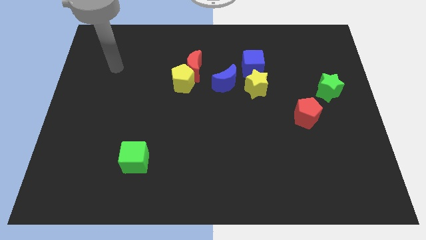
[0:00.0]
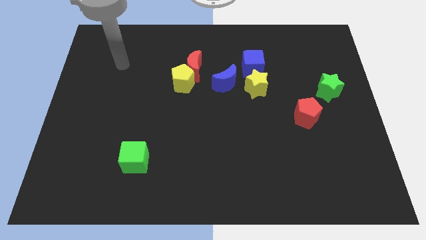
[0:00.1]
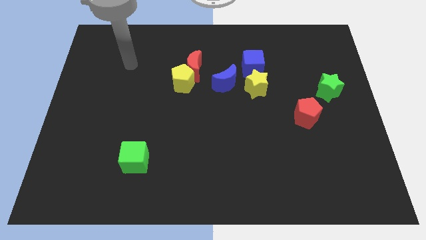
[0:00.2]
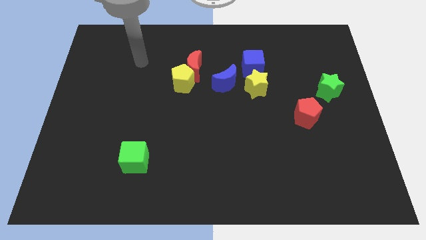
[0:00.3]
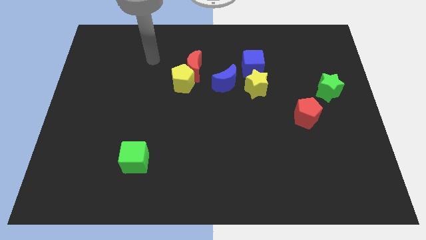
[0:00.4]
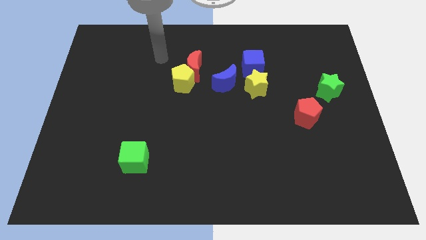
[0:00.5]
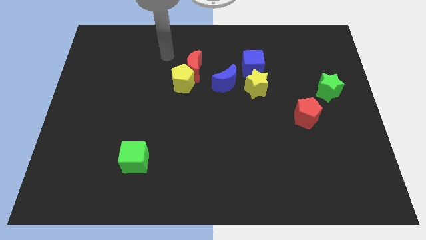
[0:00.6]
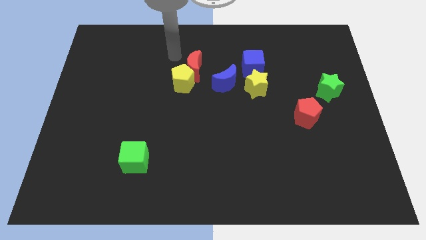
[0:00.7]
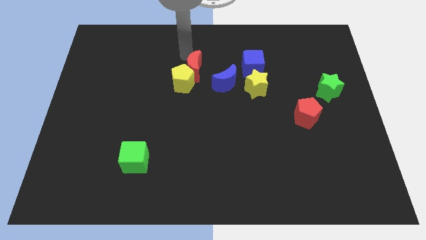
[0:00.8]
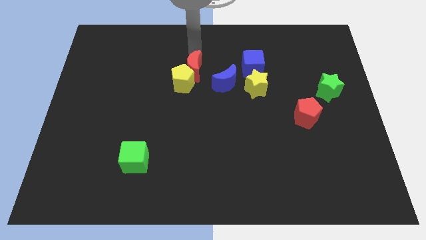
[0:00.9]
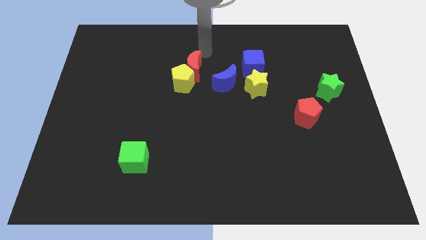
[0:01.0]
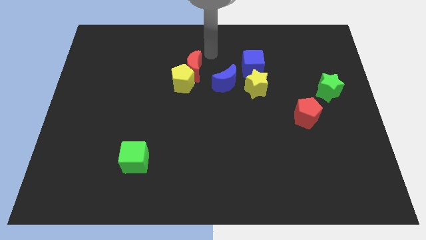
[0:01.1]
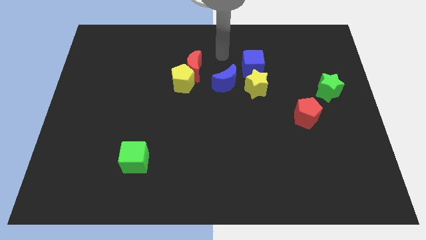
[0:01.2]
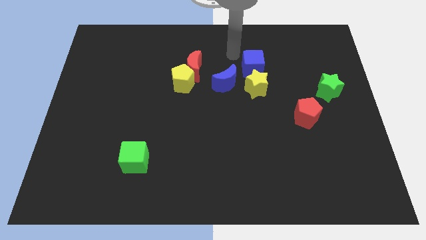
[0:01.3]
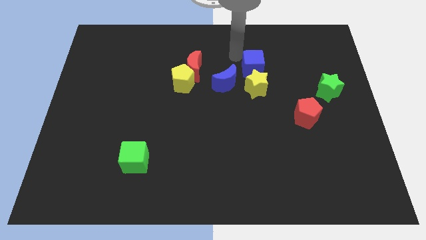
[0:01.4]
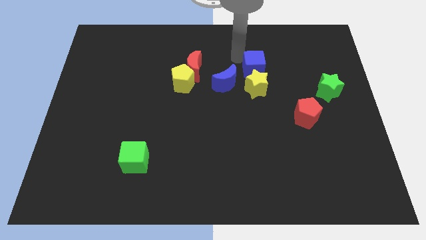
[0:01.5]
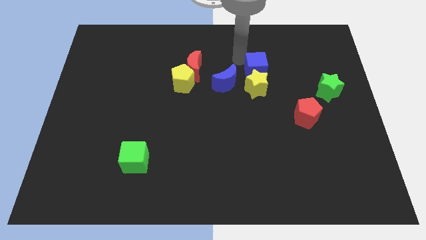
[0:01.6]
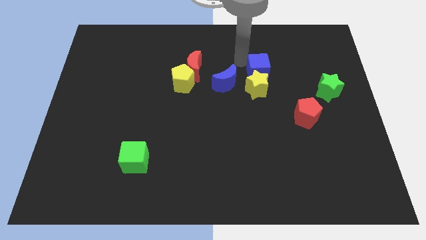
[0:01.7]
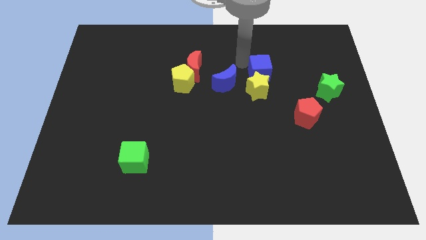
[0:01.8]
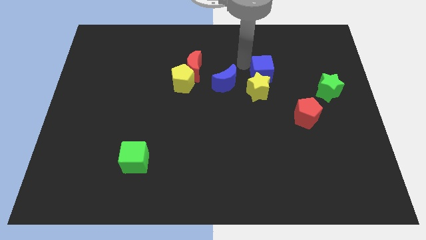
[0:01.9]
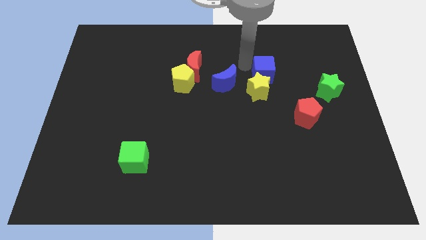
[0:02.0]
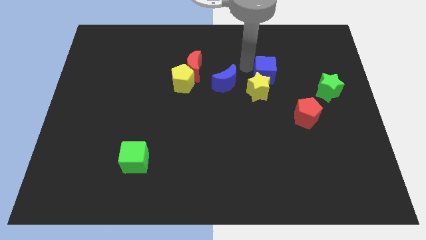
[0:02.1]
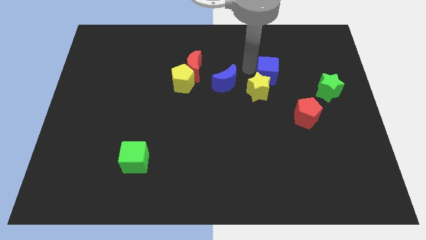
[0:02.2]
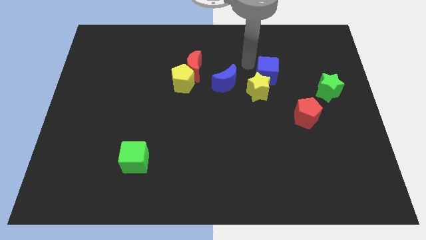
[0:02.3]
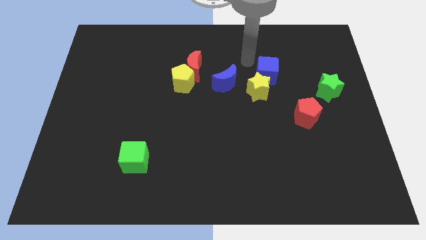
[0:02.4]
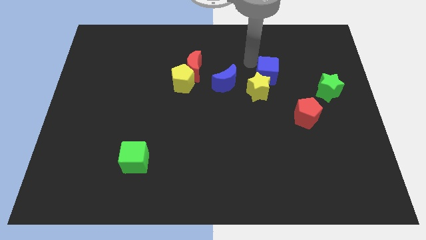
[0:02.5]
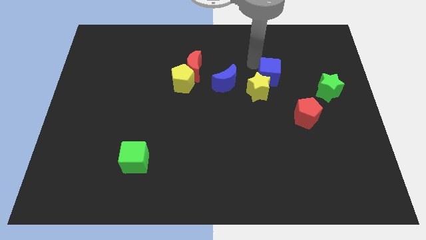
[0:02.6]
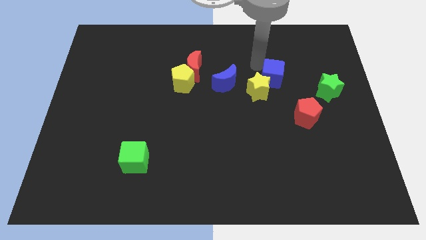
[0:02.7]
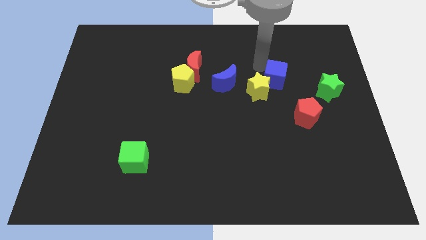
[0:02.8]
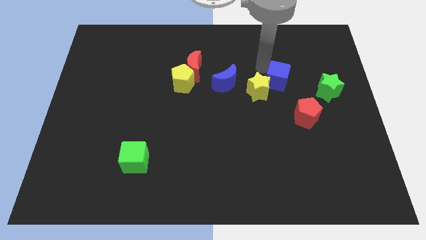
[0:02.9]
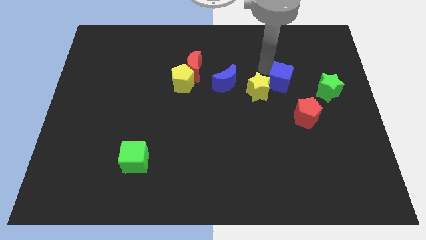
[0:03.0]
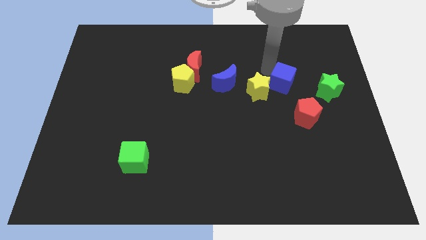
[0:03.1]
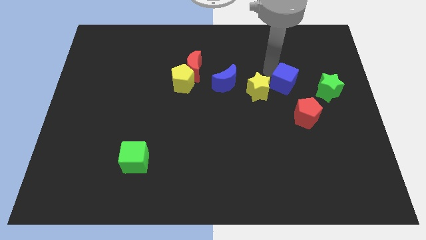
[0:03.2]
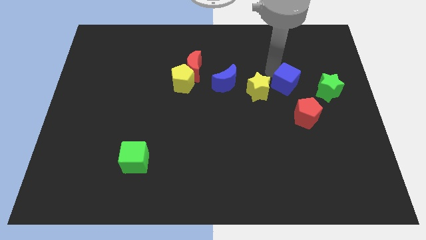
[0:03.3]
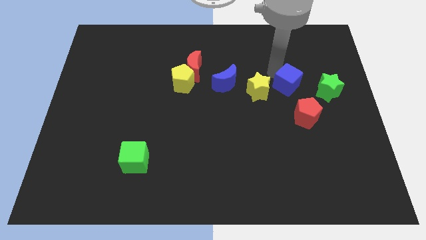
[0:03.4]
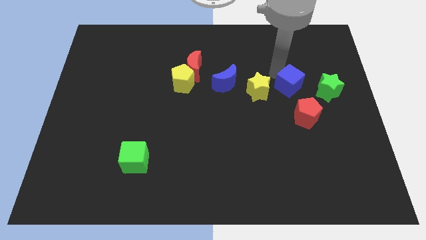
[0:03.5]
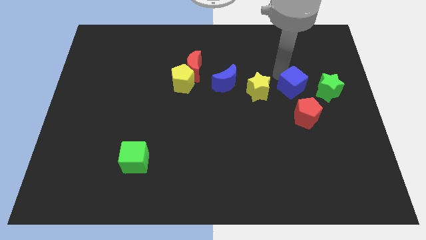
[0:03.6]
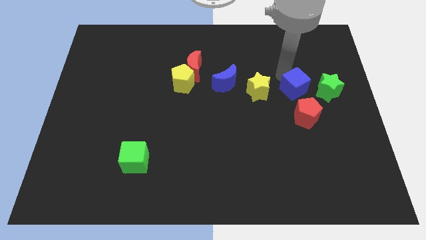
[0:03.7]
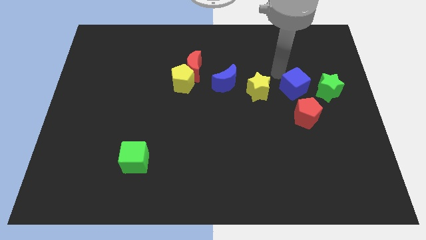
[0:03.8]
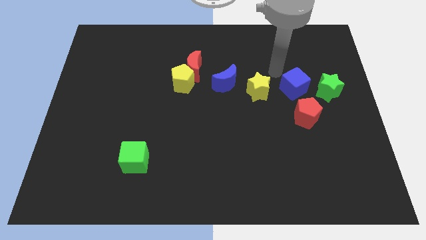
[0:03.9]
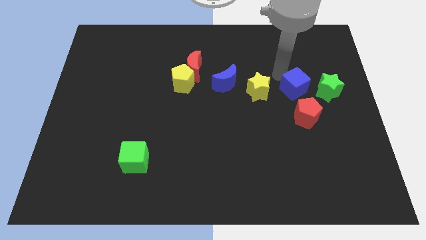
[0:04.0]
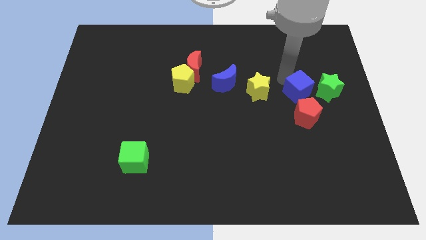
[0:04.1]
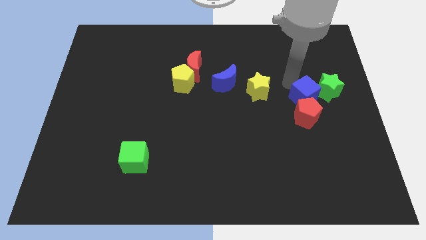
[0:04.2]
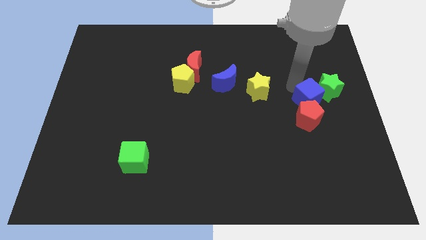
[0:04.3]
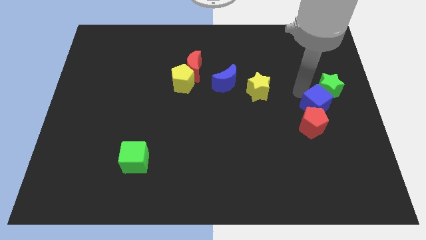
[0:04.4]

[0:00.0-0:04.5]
slide the blue cube to the bottom of the green star

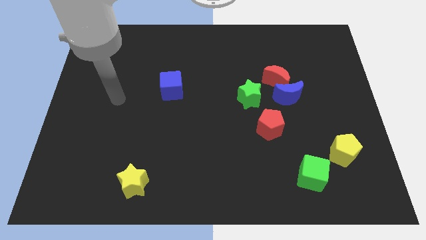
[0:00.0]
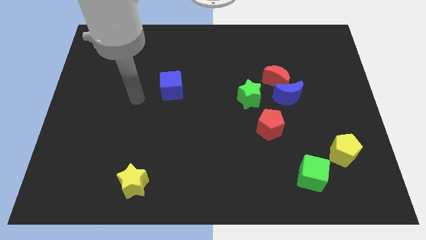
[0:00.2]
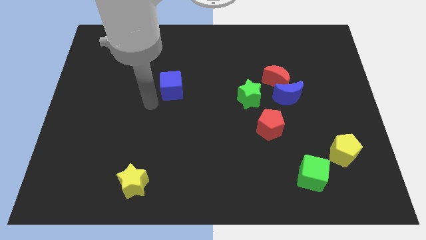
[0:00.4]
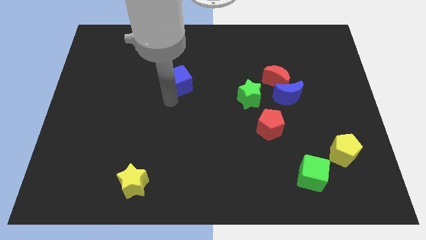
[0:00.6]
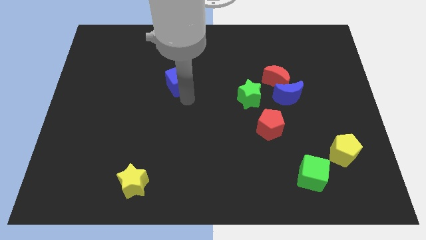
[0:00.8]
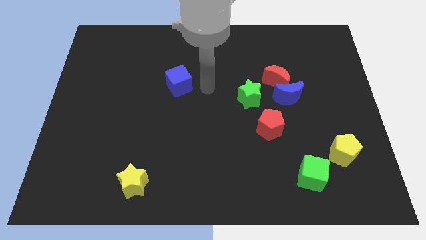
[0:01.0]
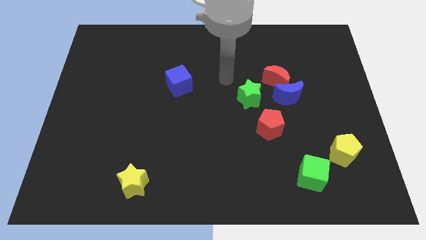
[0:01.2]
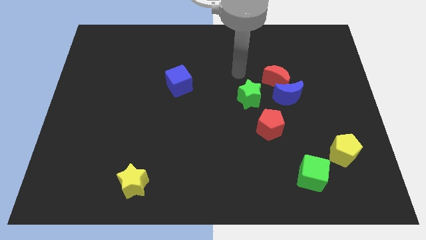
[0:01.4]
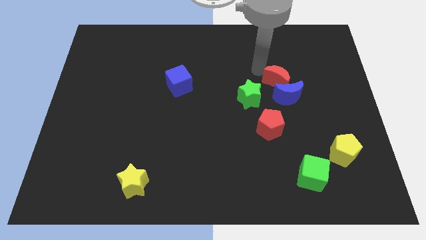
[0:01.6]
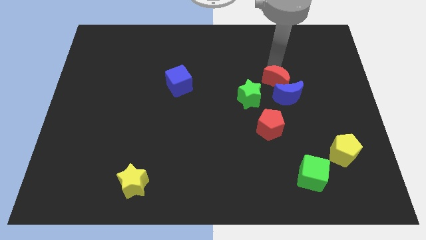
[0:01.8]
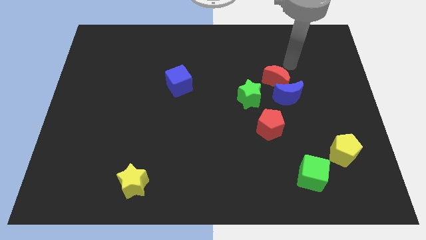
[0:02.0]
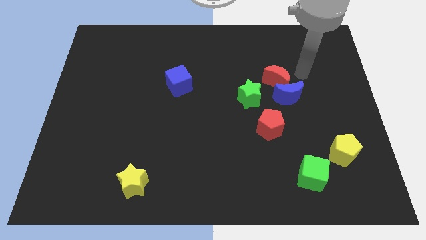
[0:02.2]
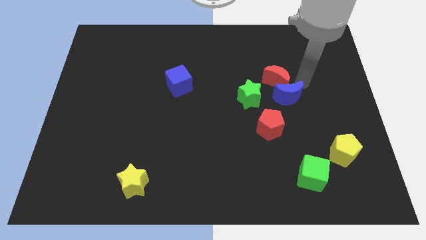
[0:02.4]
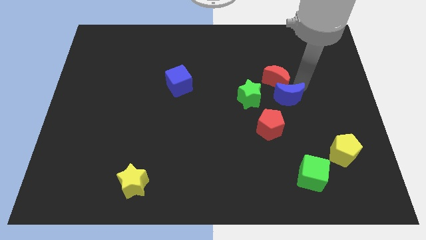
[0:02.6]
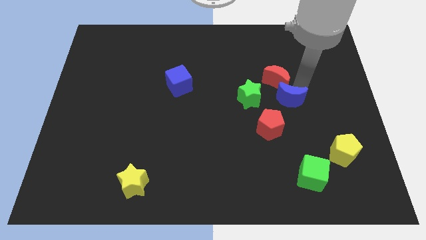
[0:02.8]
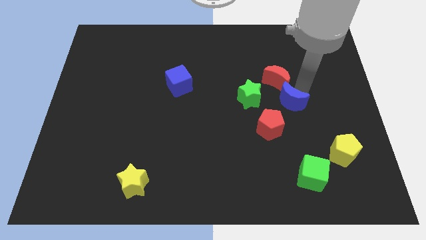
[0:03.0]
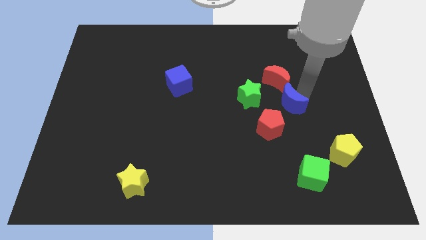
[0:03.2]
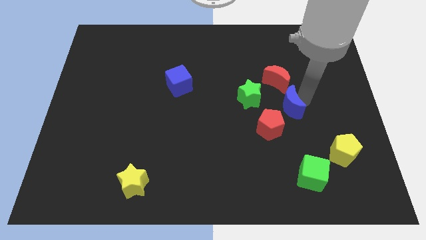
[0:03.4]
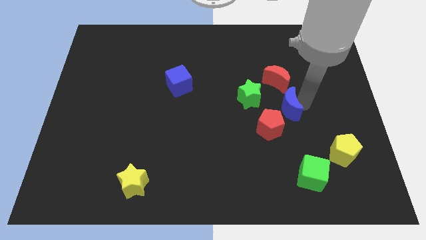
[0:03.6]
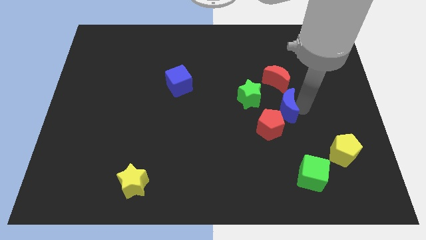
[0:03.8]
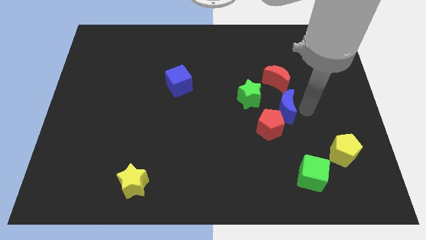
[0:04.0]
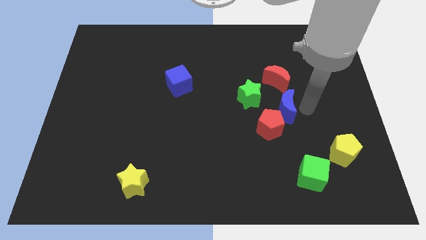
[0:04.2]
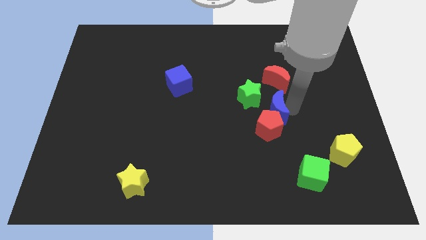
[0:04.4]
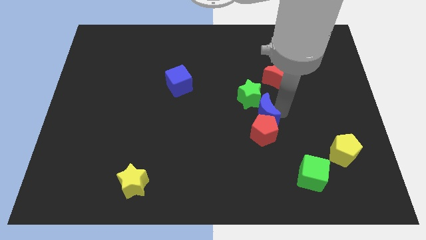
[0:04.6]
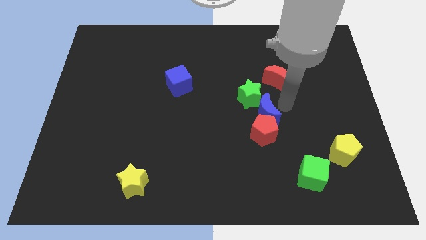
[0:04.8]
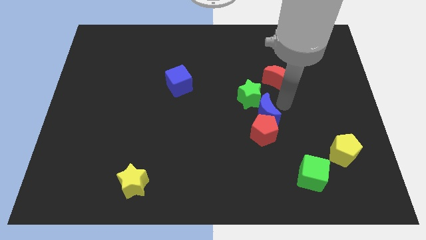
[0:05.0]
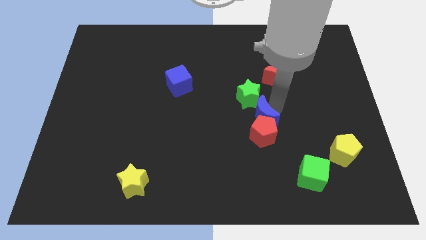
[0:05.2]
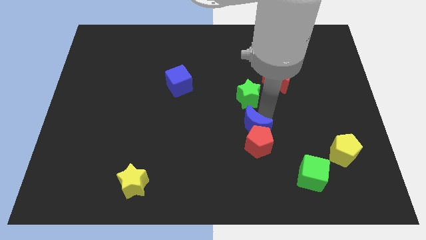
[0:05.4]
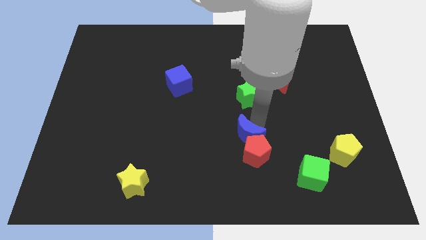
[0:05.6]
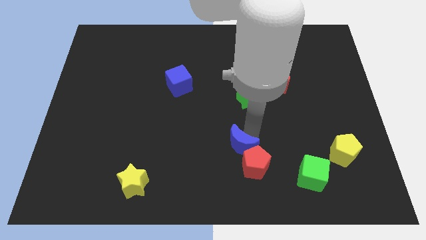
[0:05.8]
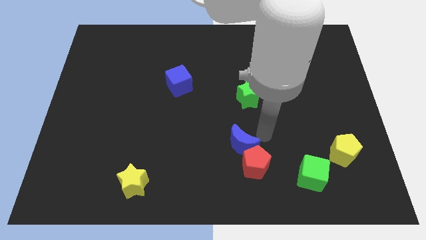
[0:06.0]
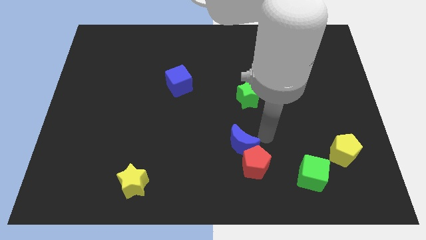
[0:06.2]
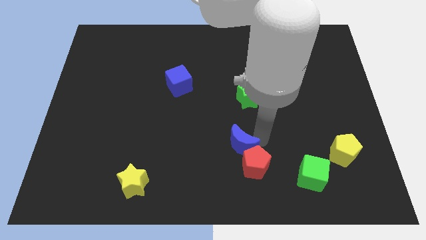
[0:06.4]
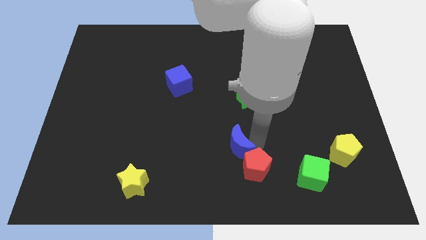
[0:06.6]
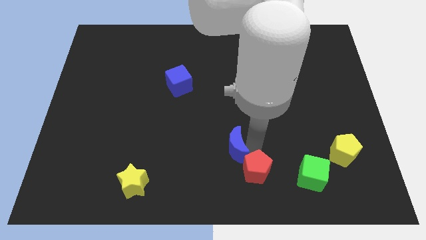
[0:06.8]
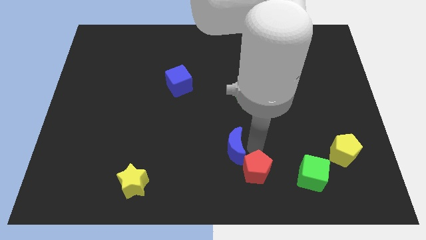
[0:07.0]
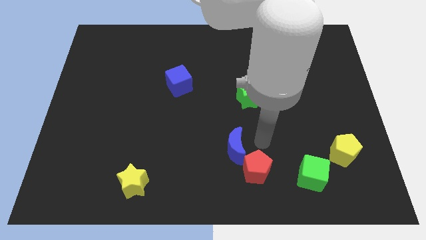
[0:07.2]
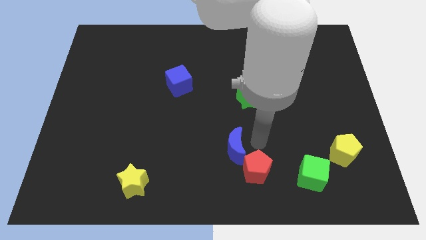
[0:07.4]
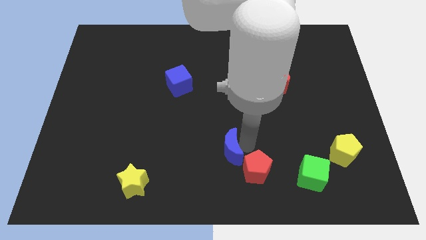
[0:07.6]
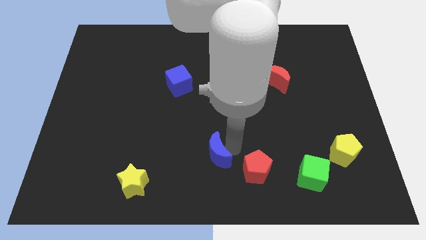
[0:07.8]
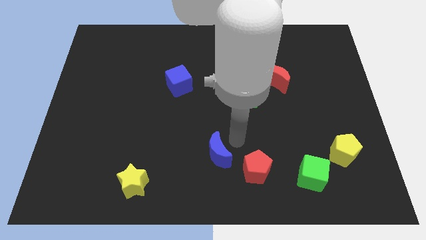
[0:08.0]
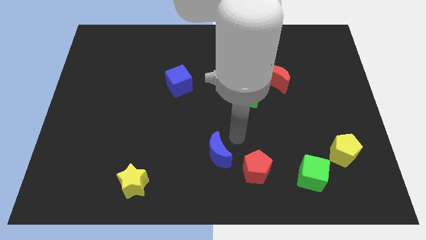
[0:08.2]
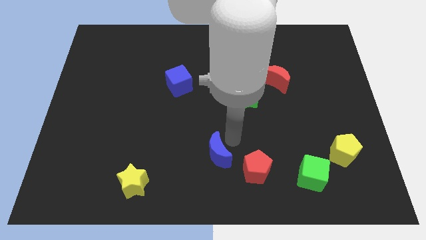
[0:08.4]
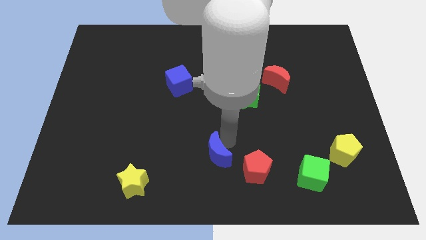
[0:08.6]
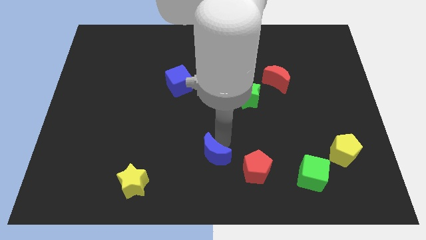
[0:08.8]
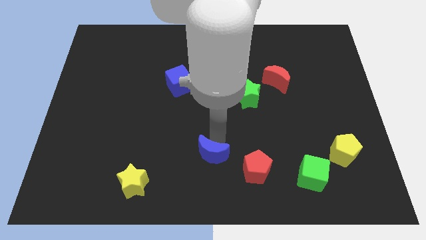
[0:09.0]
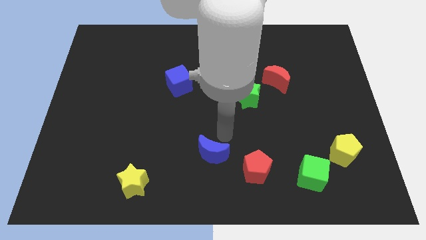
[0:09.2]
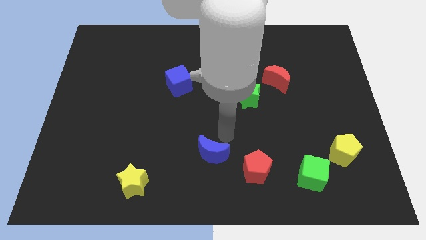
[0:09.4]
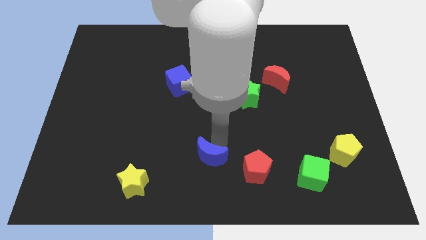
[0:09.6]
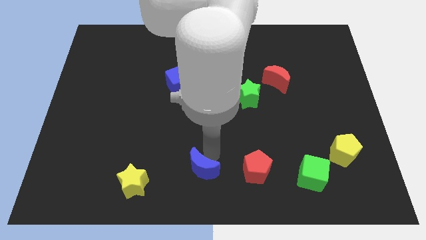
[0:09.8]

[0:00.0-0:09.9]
slide the blue moon to the right of the yellow star
